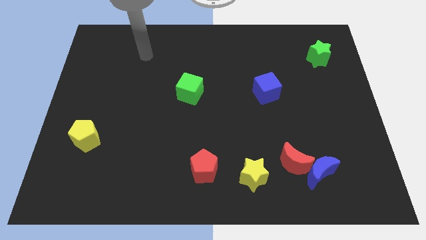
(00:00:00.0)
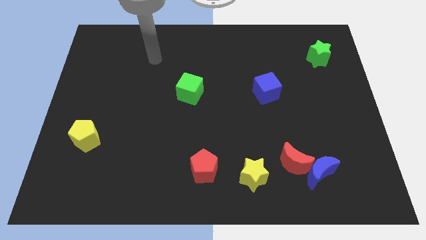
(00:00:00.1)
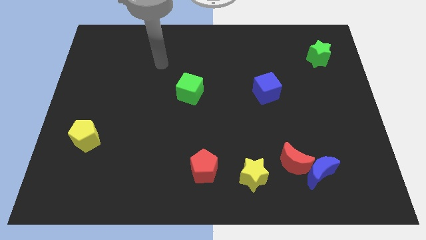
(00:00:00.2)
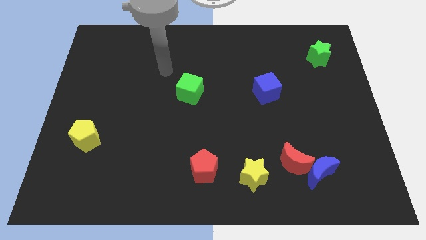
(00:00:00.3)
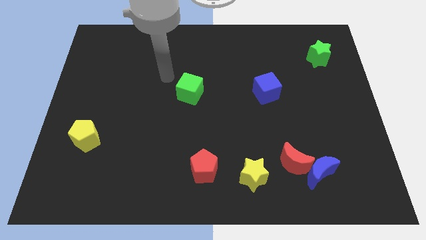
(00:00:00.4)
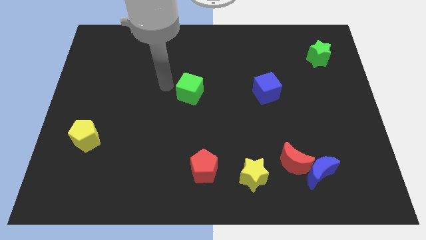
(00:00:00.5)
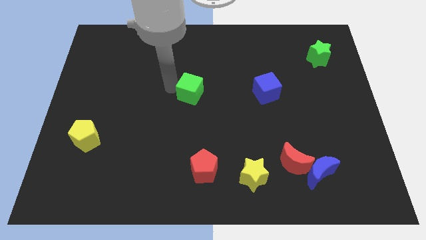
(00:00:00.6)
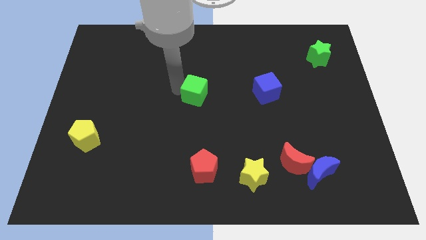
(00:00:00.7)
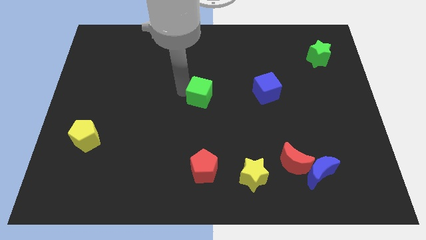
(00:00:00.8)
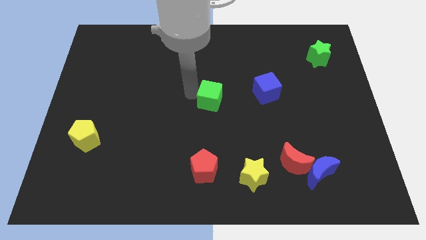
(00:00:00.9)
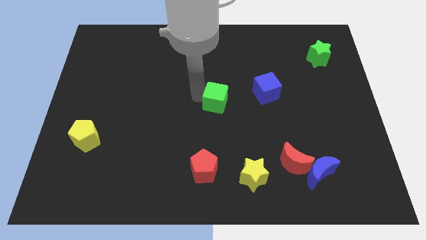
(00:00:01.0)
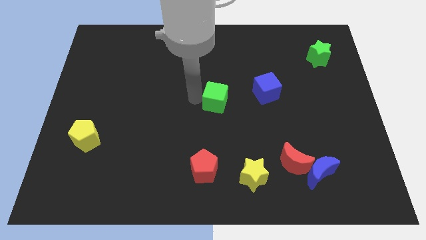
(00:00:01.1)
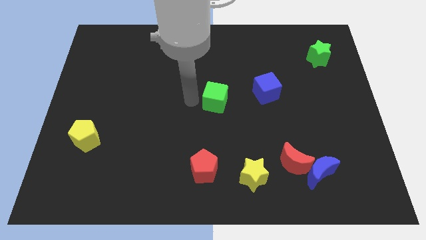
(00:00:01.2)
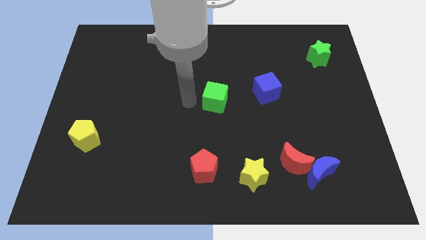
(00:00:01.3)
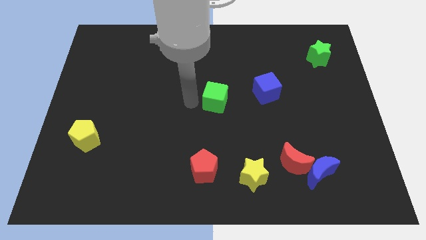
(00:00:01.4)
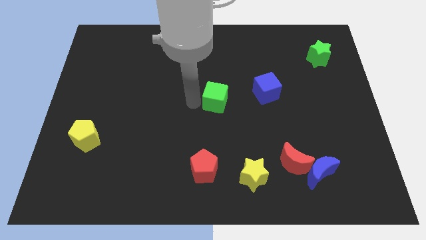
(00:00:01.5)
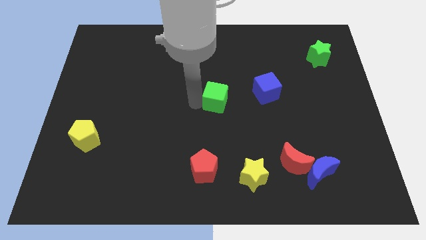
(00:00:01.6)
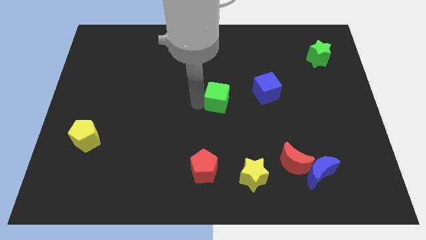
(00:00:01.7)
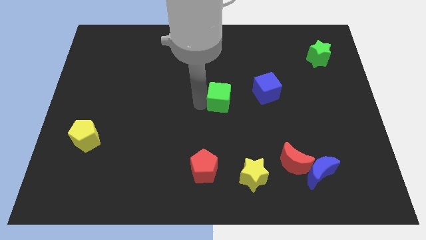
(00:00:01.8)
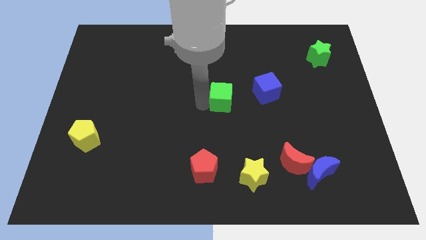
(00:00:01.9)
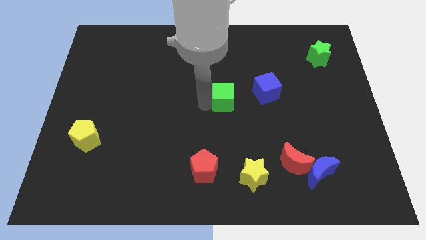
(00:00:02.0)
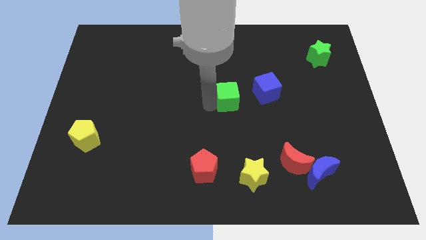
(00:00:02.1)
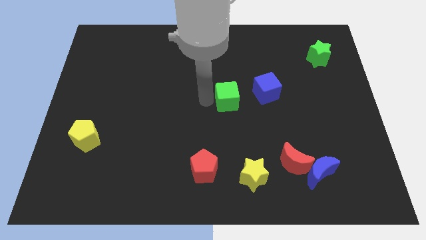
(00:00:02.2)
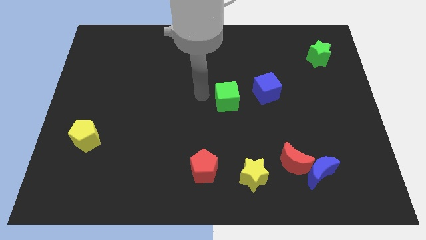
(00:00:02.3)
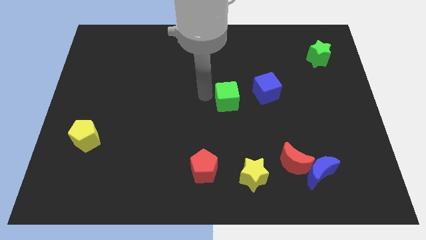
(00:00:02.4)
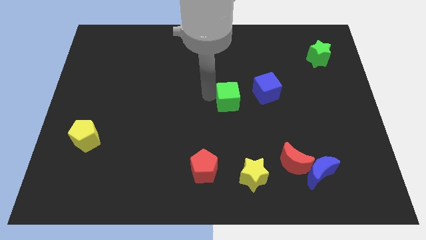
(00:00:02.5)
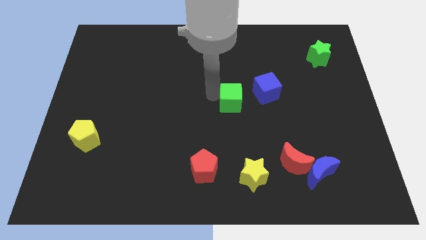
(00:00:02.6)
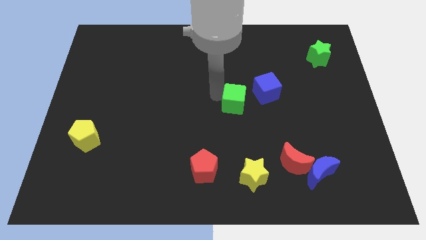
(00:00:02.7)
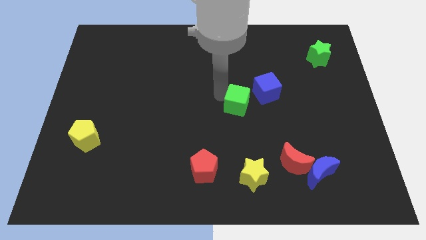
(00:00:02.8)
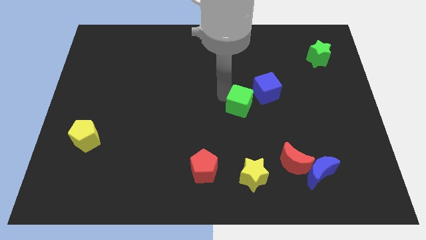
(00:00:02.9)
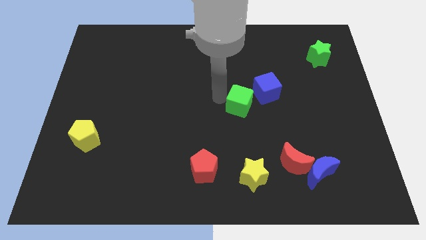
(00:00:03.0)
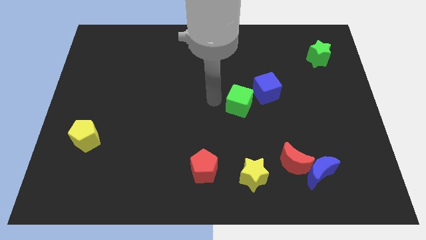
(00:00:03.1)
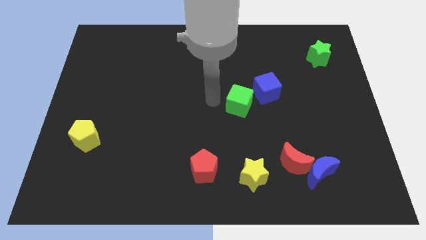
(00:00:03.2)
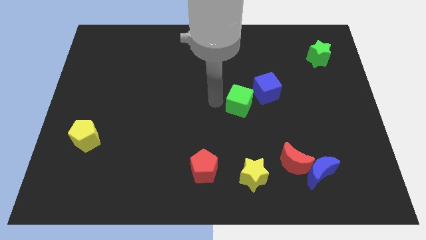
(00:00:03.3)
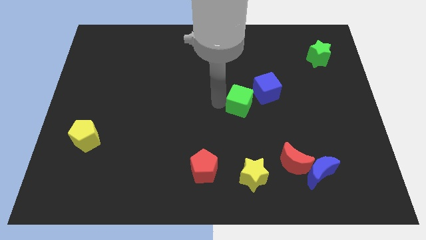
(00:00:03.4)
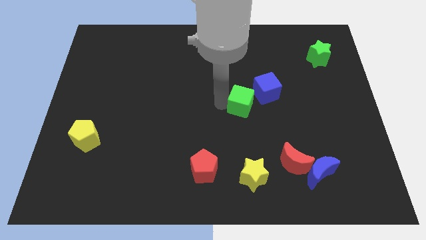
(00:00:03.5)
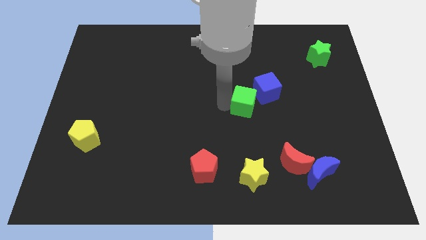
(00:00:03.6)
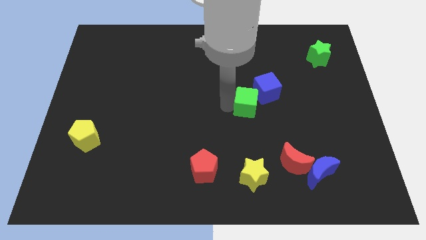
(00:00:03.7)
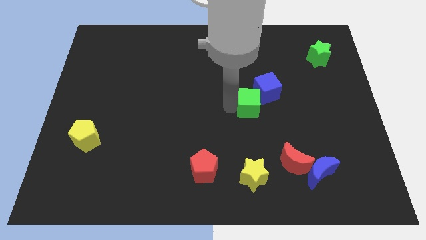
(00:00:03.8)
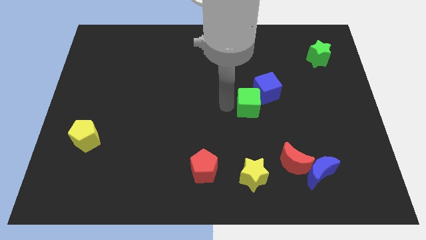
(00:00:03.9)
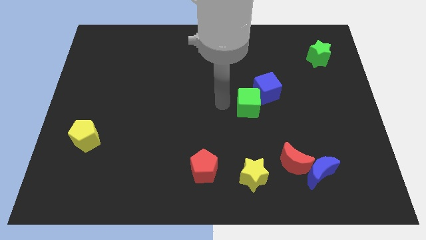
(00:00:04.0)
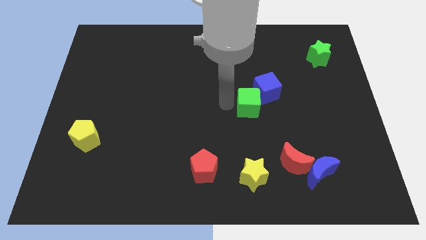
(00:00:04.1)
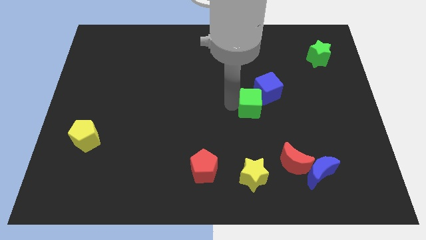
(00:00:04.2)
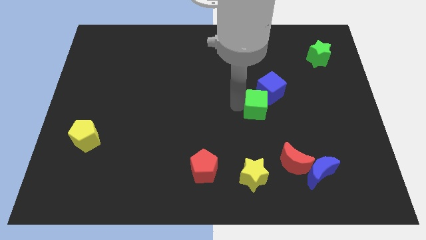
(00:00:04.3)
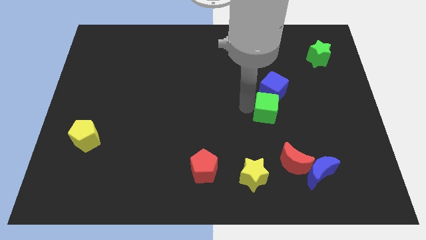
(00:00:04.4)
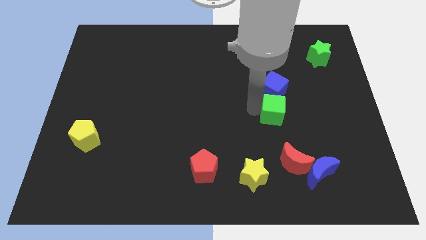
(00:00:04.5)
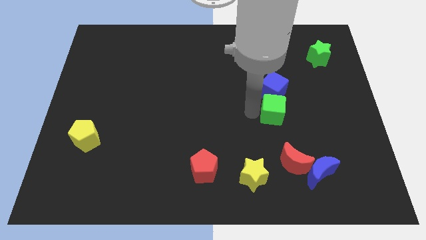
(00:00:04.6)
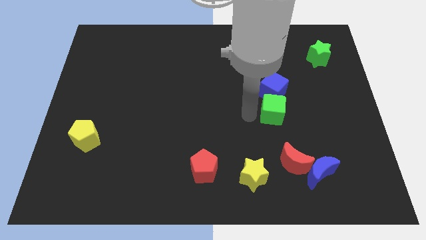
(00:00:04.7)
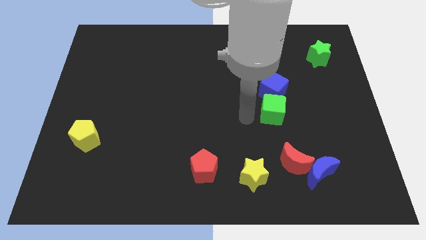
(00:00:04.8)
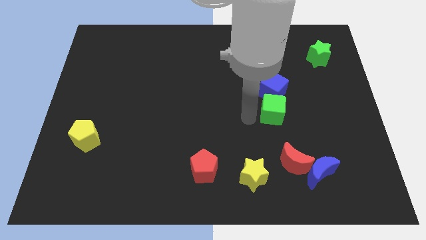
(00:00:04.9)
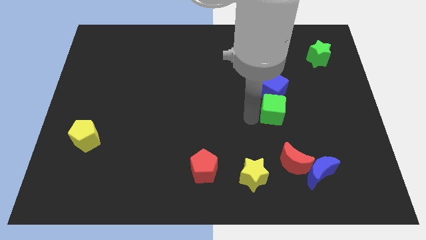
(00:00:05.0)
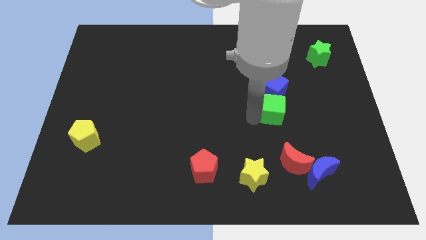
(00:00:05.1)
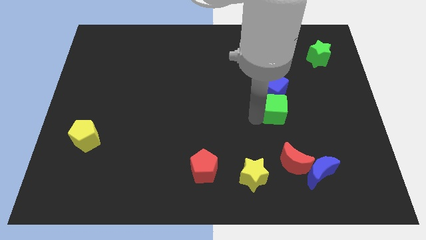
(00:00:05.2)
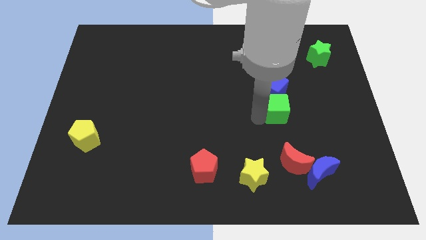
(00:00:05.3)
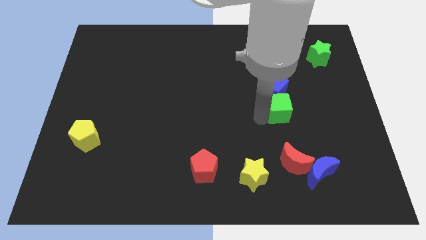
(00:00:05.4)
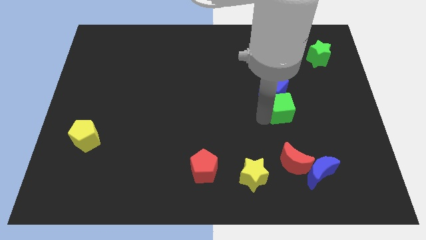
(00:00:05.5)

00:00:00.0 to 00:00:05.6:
push the green cube right

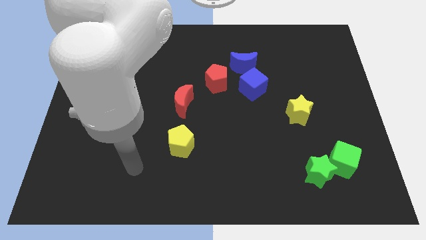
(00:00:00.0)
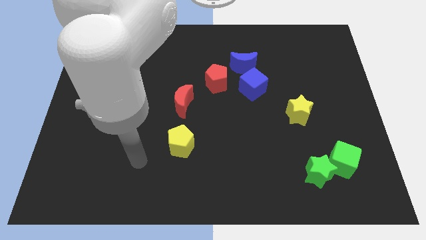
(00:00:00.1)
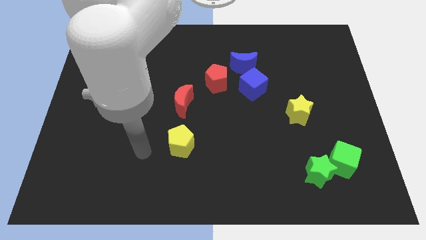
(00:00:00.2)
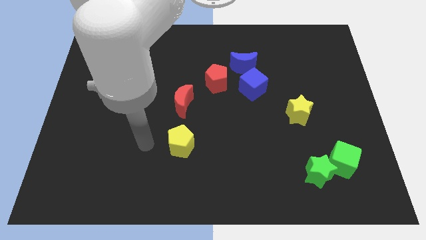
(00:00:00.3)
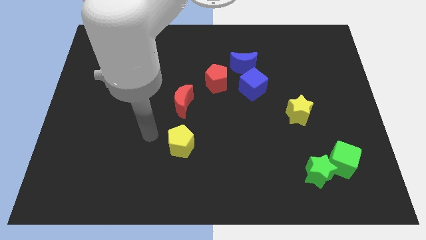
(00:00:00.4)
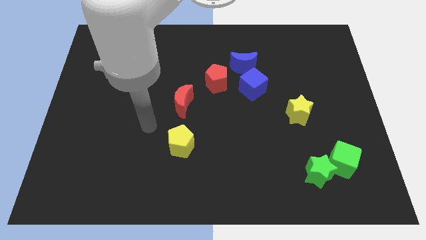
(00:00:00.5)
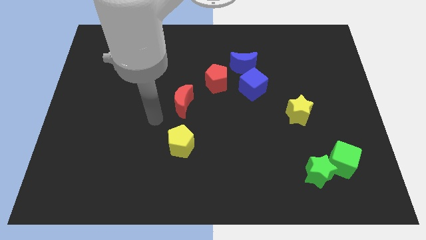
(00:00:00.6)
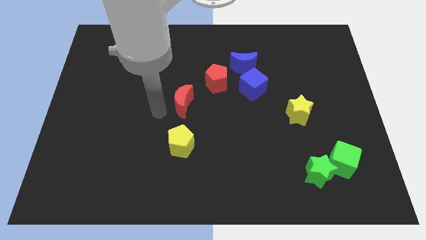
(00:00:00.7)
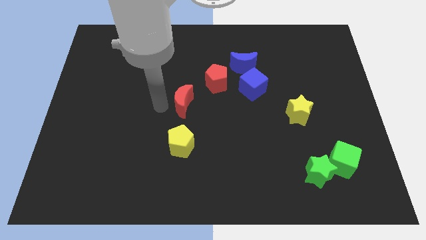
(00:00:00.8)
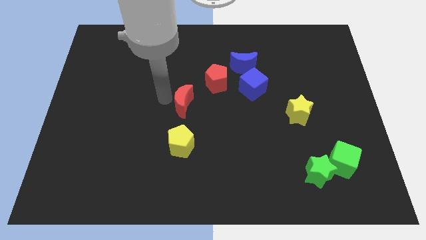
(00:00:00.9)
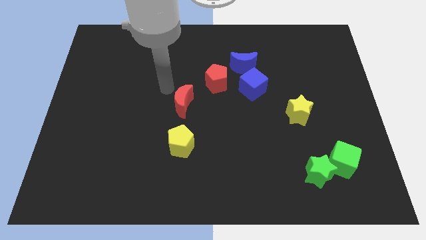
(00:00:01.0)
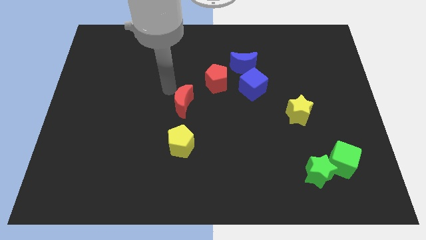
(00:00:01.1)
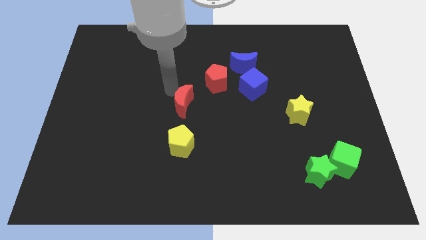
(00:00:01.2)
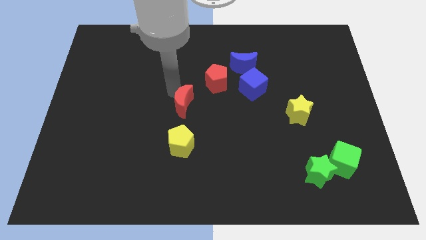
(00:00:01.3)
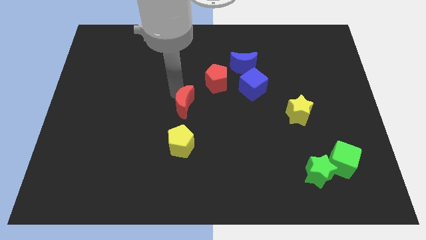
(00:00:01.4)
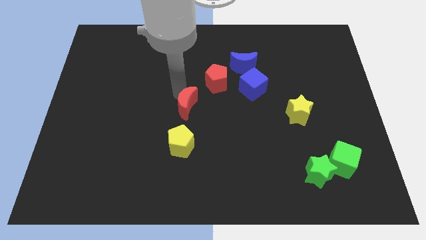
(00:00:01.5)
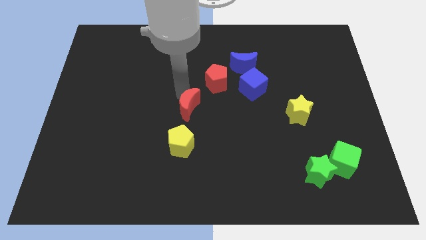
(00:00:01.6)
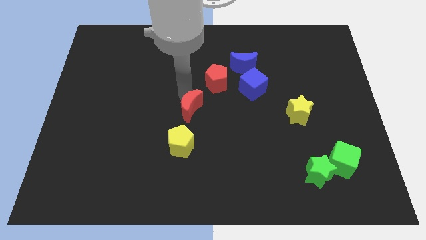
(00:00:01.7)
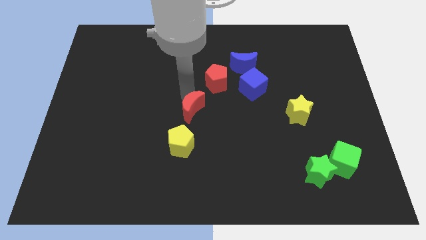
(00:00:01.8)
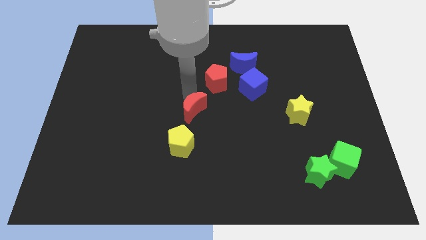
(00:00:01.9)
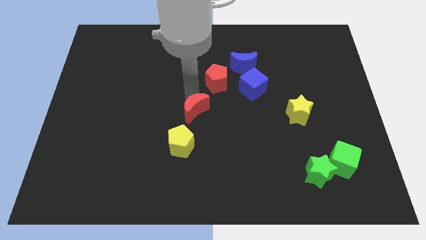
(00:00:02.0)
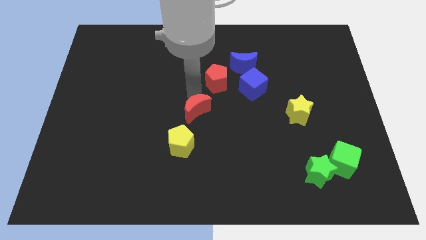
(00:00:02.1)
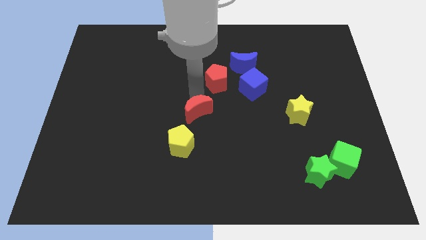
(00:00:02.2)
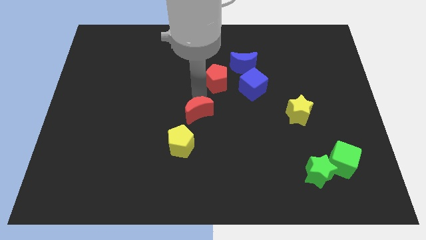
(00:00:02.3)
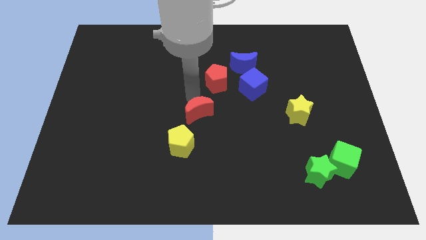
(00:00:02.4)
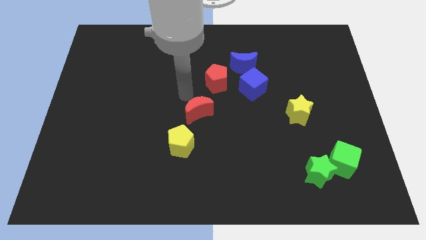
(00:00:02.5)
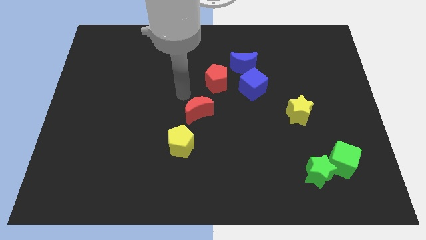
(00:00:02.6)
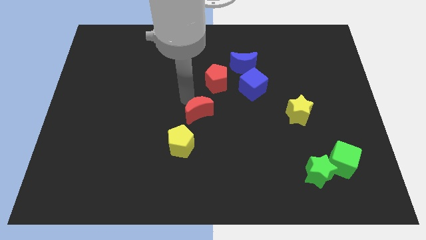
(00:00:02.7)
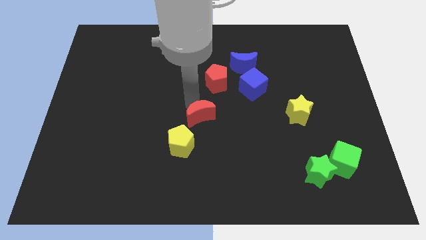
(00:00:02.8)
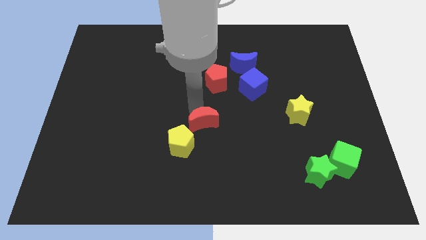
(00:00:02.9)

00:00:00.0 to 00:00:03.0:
move the red moon down and right a bit
